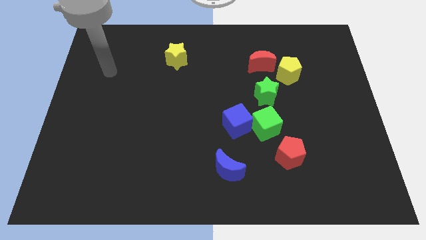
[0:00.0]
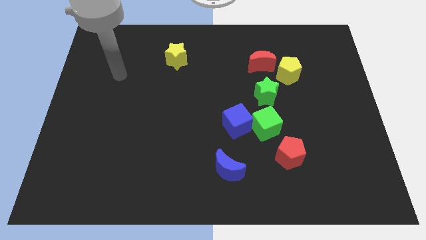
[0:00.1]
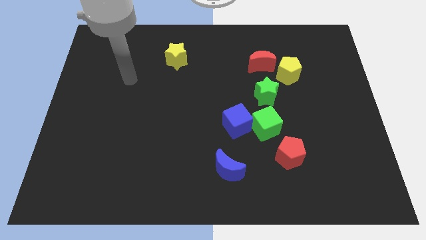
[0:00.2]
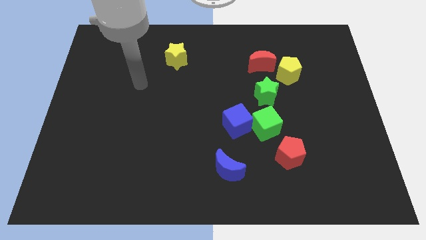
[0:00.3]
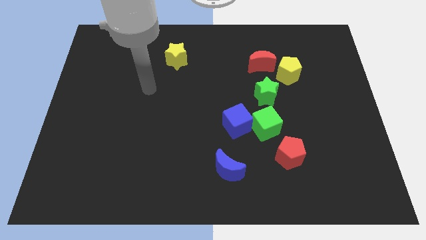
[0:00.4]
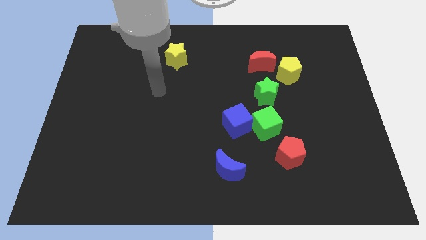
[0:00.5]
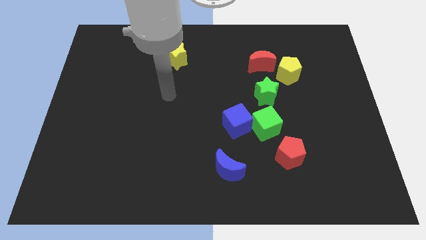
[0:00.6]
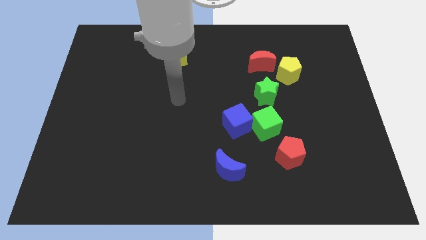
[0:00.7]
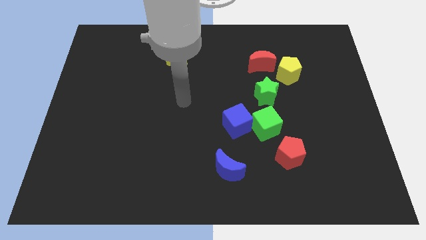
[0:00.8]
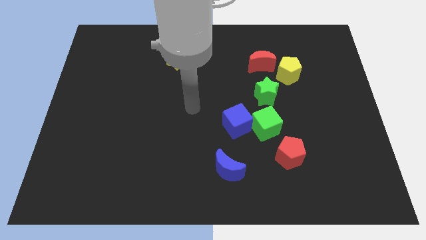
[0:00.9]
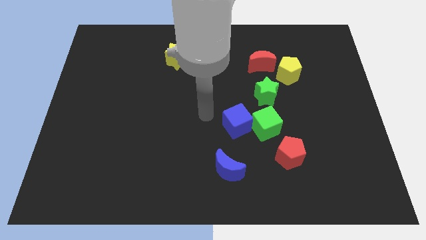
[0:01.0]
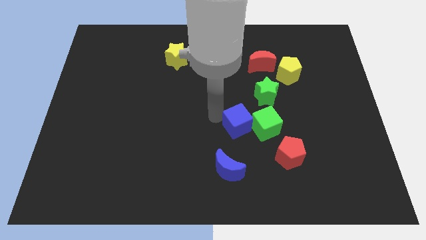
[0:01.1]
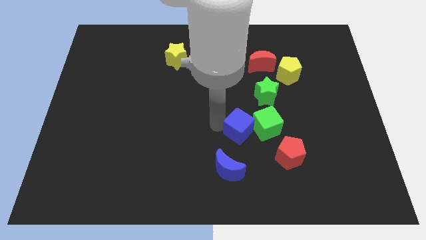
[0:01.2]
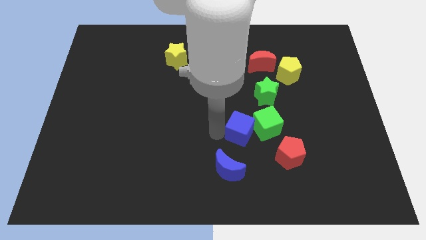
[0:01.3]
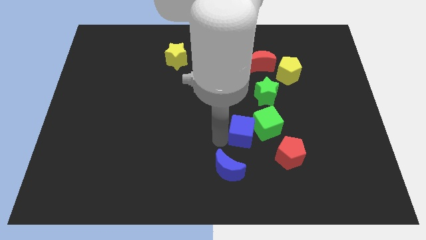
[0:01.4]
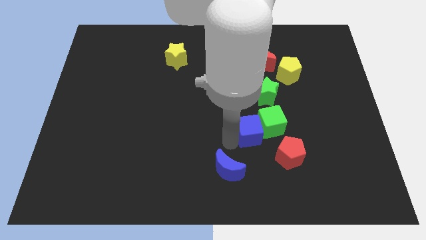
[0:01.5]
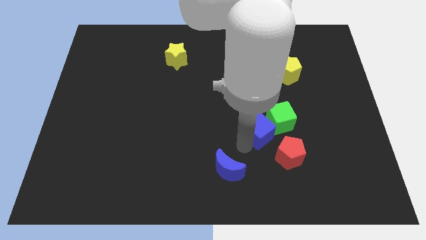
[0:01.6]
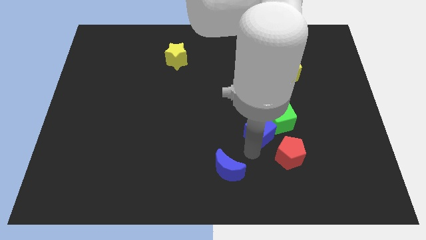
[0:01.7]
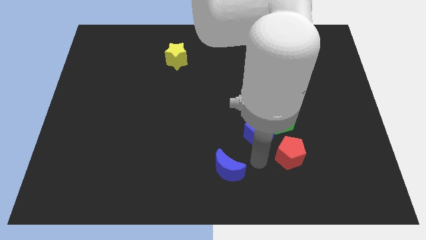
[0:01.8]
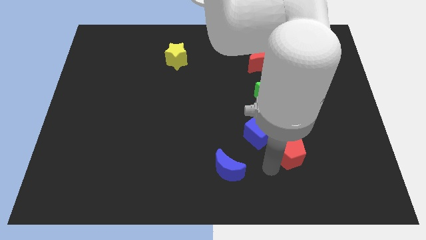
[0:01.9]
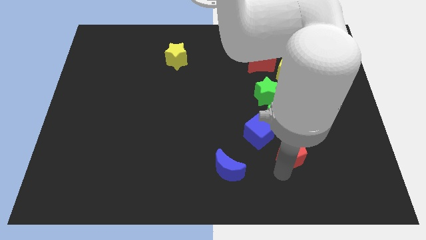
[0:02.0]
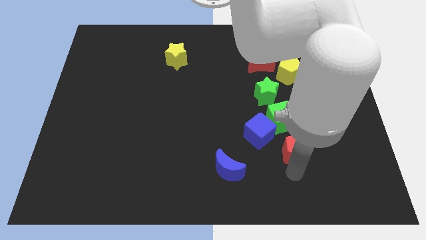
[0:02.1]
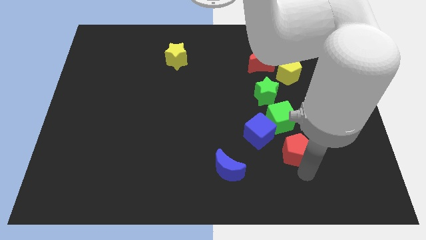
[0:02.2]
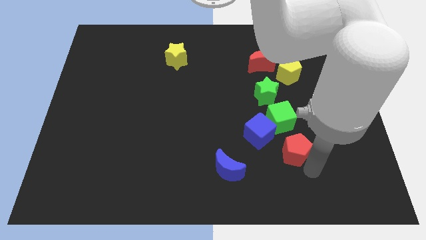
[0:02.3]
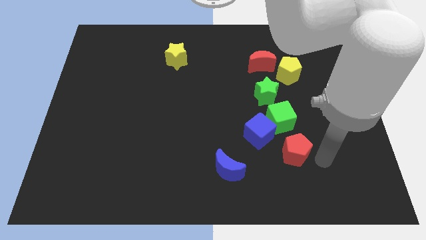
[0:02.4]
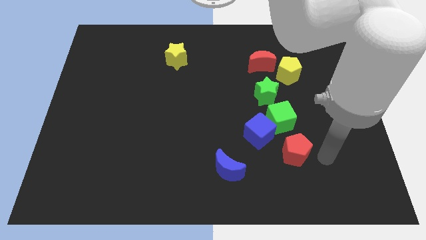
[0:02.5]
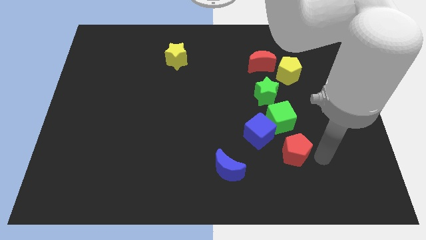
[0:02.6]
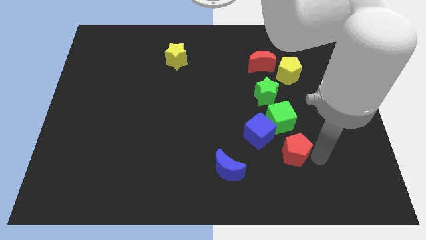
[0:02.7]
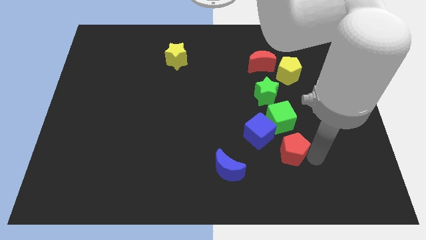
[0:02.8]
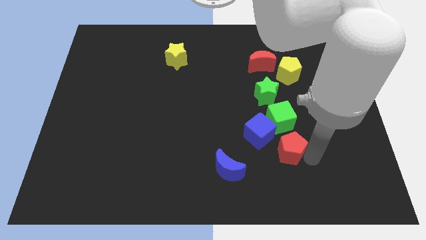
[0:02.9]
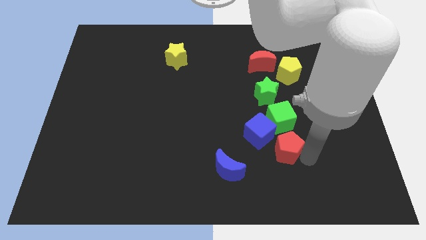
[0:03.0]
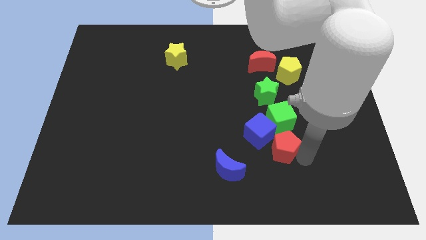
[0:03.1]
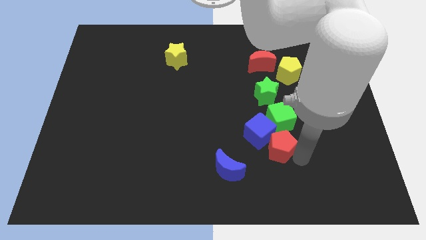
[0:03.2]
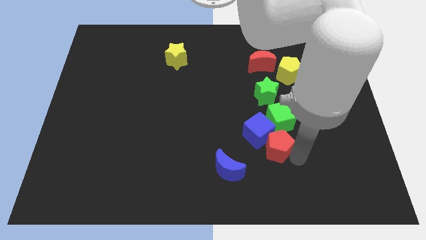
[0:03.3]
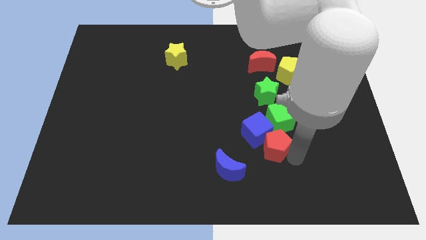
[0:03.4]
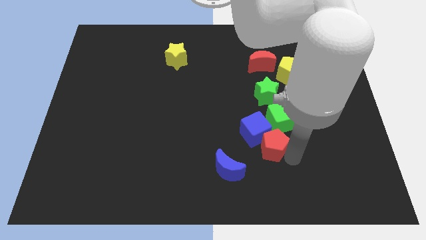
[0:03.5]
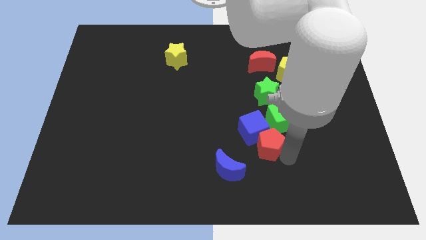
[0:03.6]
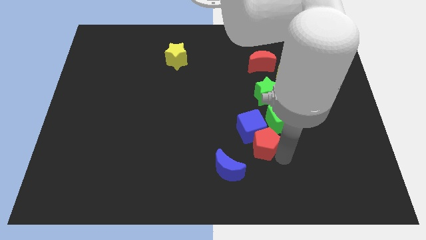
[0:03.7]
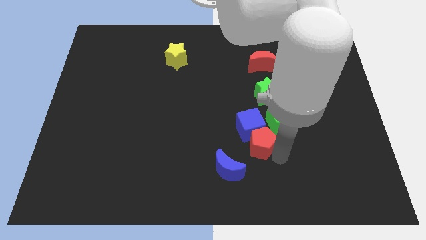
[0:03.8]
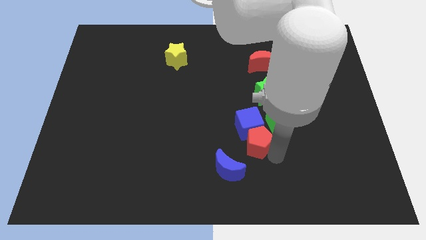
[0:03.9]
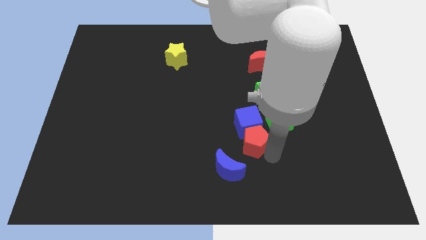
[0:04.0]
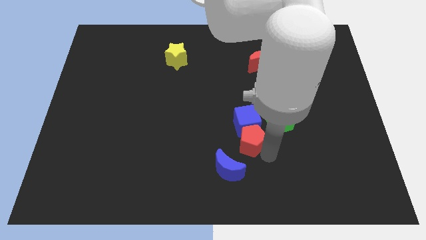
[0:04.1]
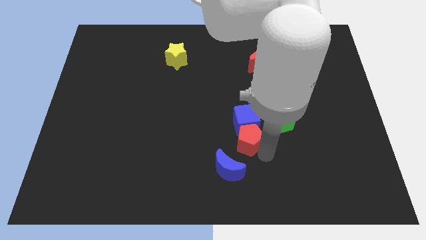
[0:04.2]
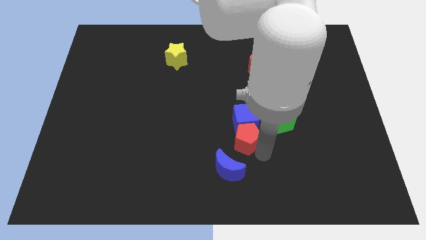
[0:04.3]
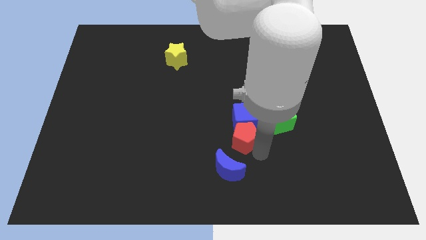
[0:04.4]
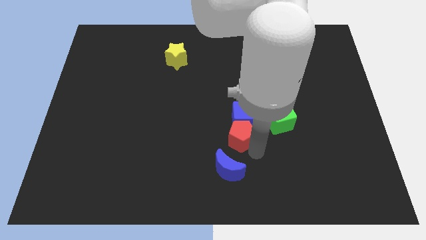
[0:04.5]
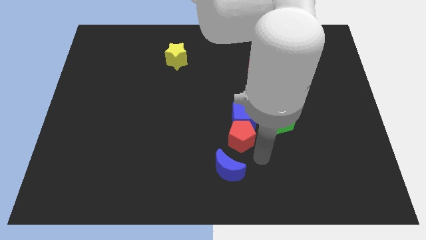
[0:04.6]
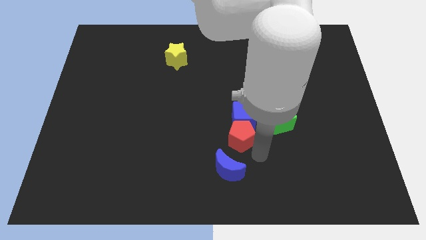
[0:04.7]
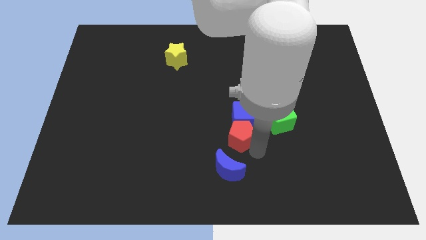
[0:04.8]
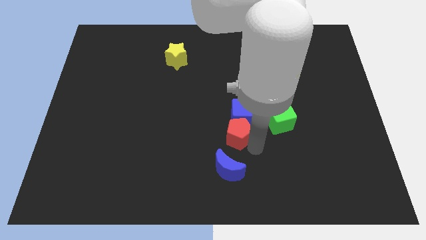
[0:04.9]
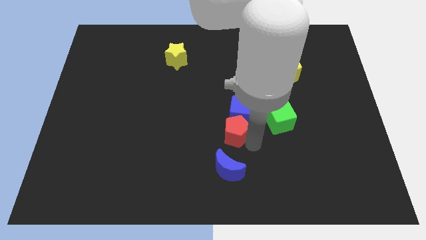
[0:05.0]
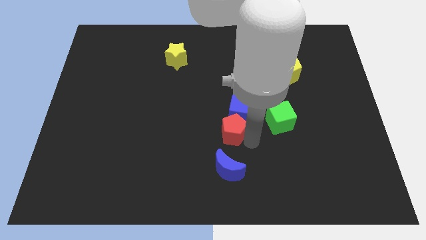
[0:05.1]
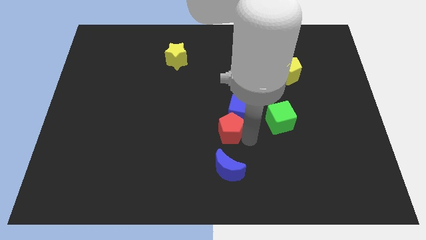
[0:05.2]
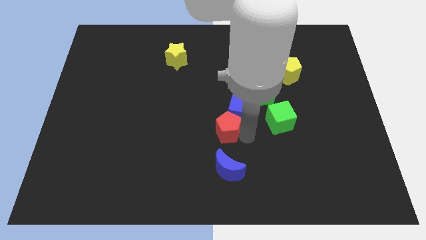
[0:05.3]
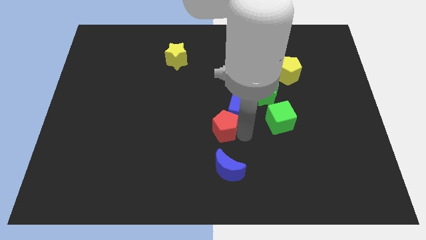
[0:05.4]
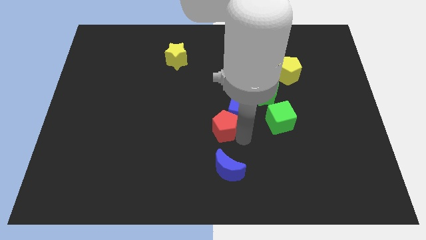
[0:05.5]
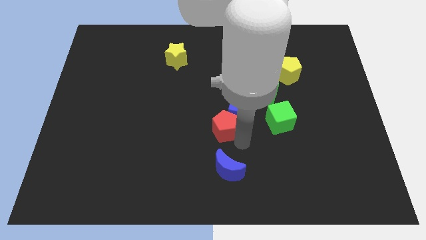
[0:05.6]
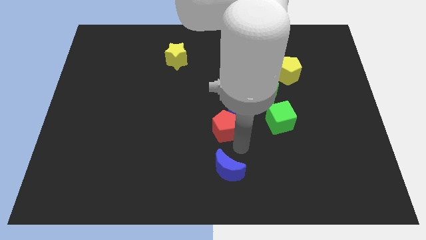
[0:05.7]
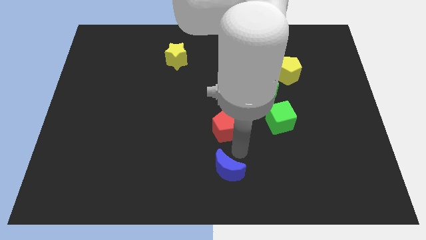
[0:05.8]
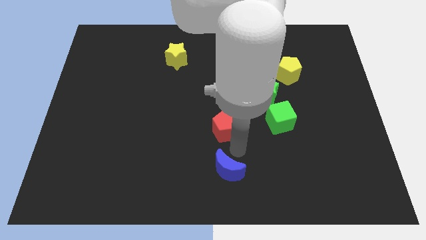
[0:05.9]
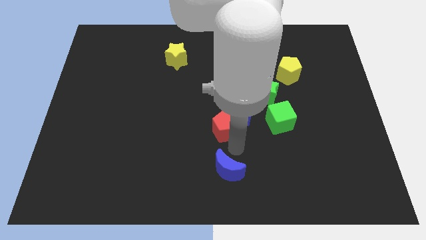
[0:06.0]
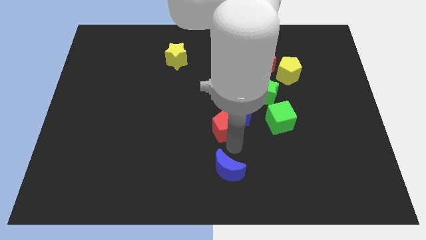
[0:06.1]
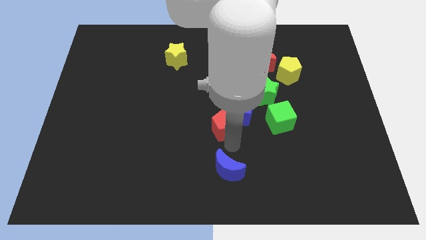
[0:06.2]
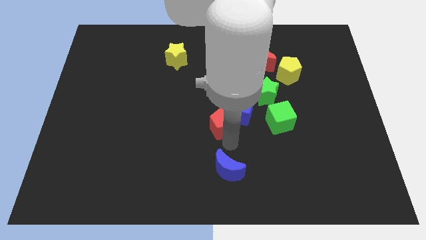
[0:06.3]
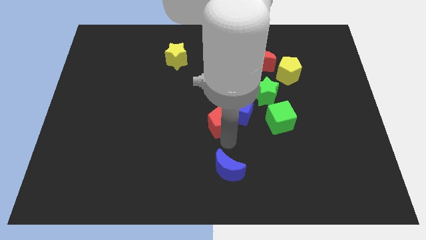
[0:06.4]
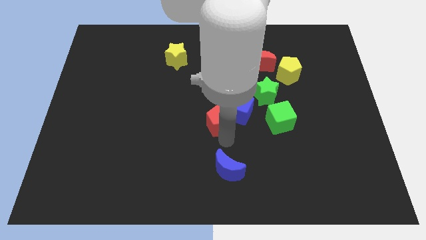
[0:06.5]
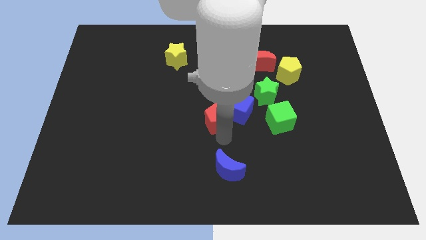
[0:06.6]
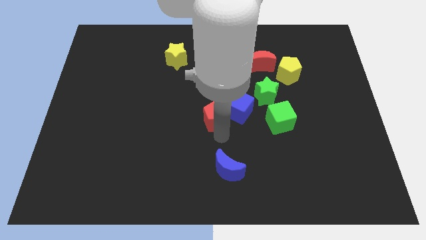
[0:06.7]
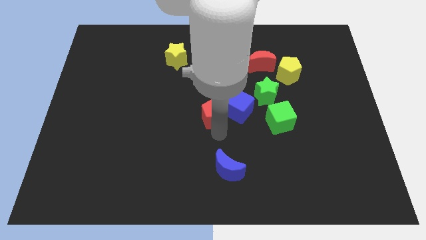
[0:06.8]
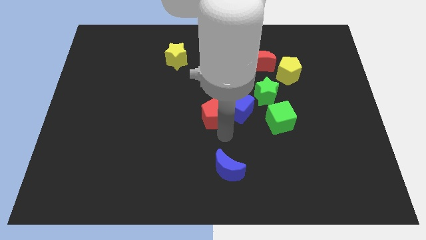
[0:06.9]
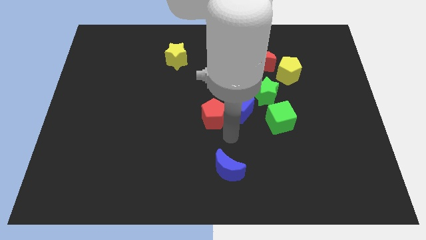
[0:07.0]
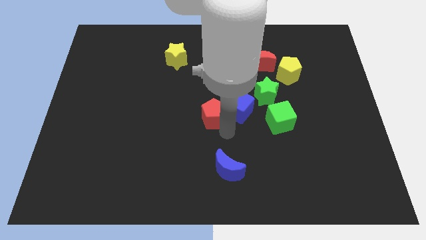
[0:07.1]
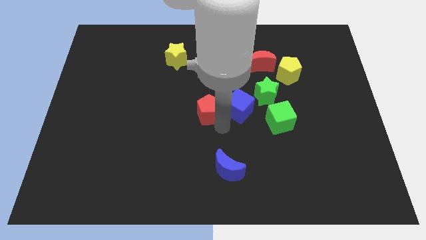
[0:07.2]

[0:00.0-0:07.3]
slide the red pentagon up and then to the left

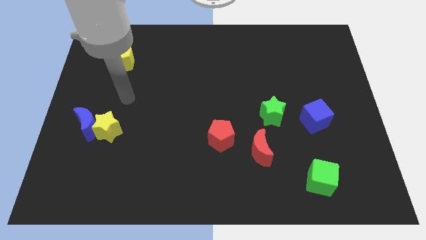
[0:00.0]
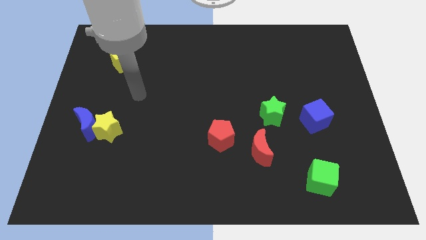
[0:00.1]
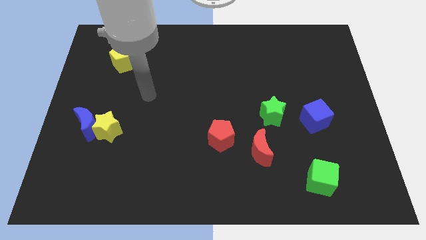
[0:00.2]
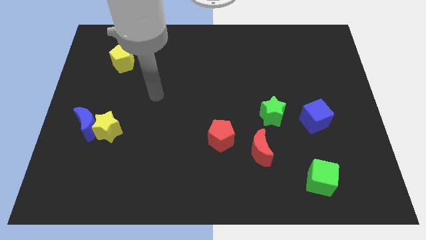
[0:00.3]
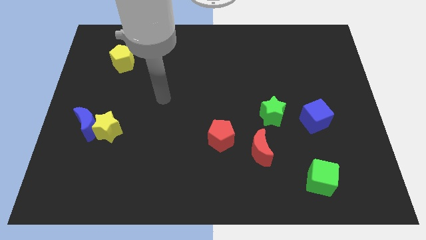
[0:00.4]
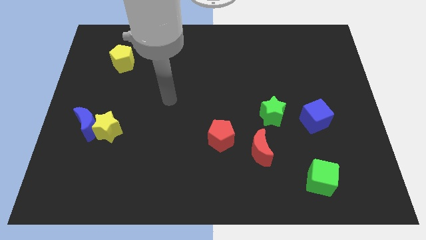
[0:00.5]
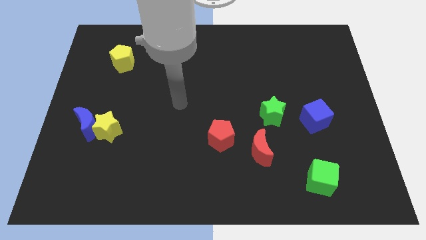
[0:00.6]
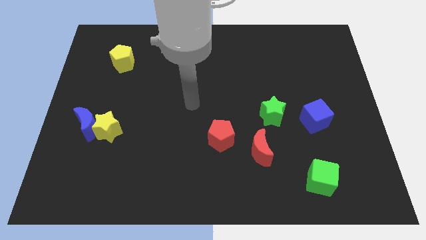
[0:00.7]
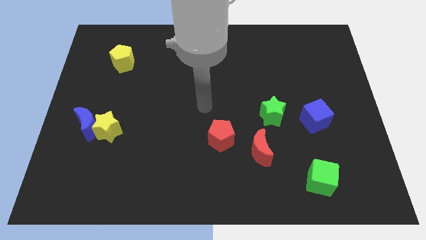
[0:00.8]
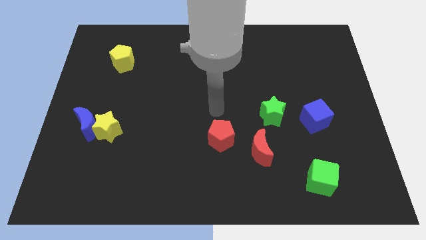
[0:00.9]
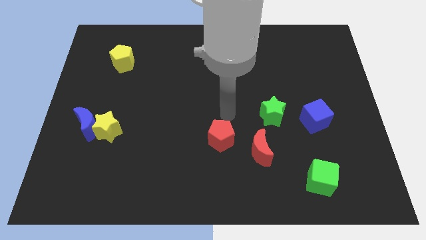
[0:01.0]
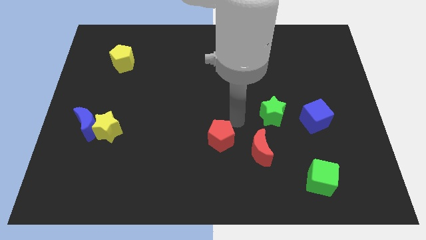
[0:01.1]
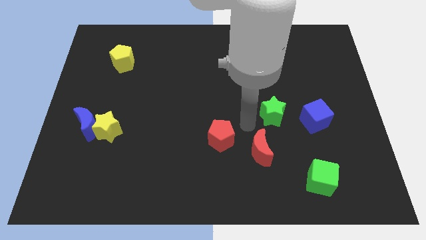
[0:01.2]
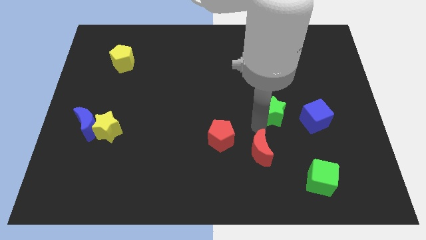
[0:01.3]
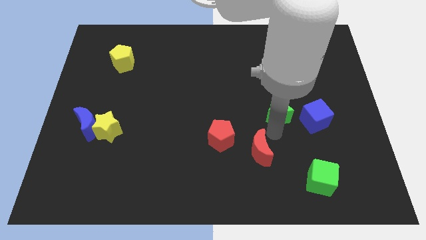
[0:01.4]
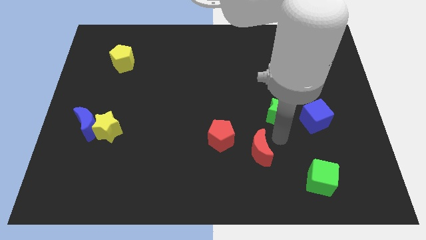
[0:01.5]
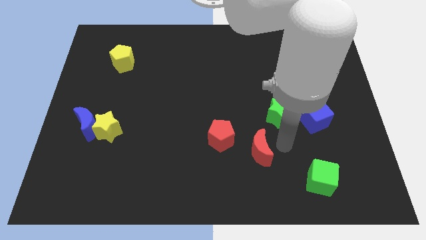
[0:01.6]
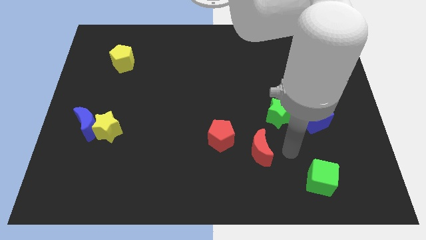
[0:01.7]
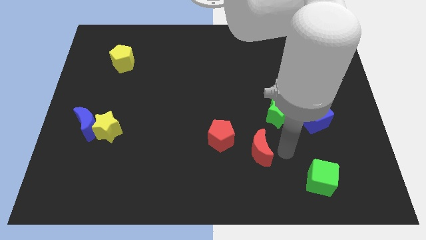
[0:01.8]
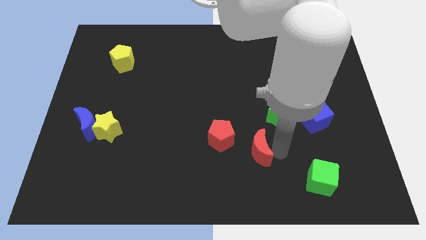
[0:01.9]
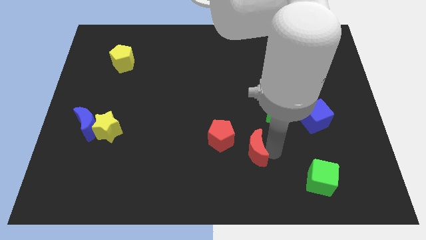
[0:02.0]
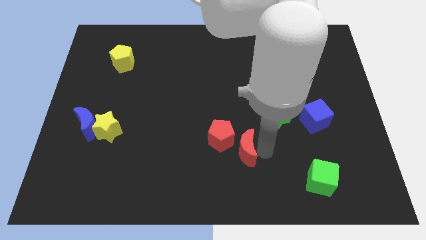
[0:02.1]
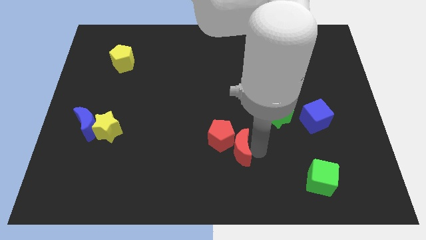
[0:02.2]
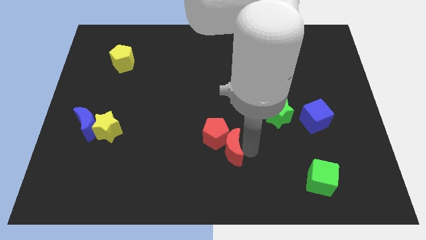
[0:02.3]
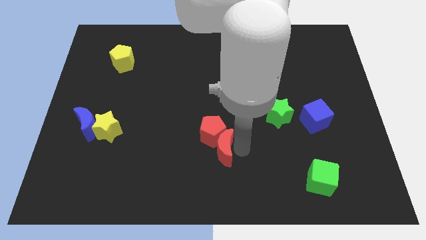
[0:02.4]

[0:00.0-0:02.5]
move the red moon a little bit left
